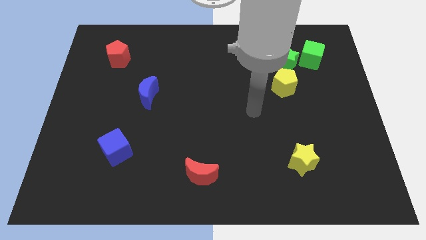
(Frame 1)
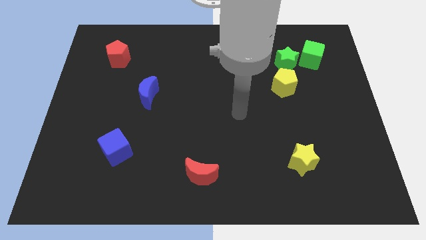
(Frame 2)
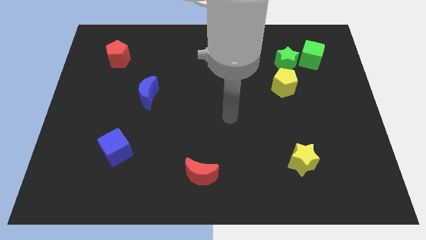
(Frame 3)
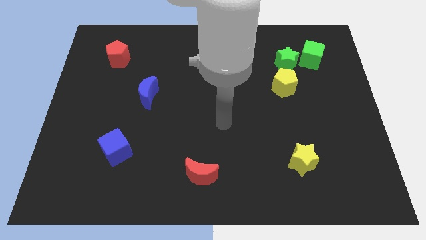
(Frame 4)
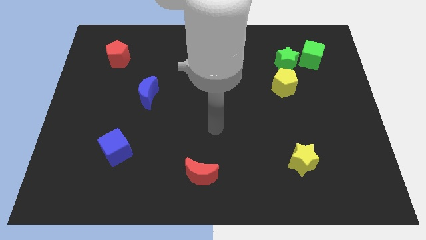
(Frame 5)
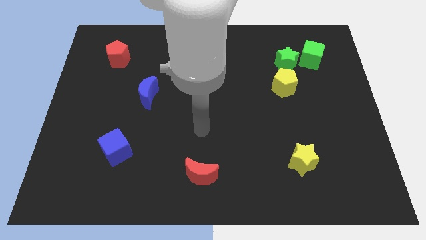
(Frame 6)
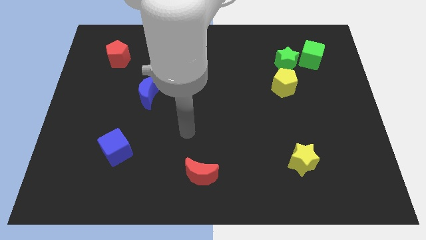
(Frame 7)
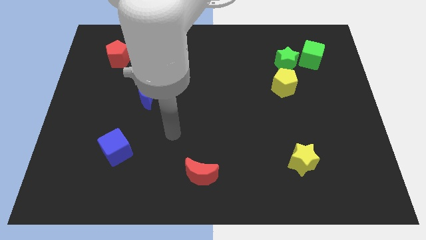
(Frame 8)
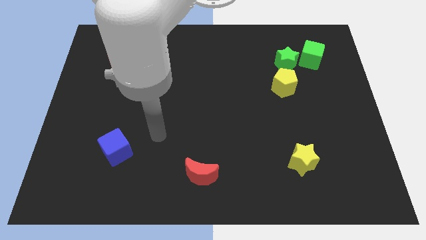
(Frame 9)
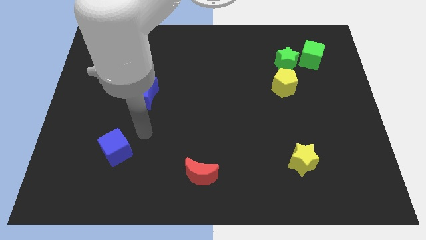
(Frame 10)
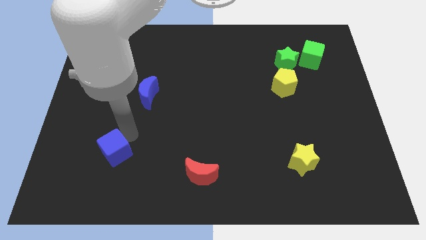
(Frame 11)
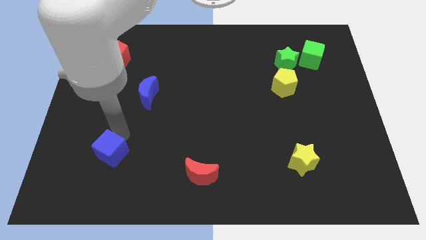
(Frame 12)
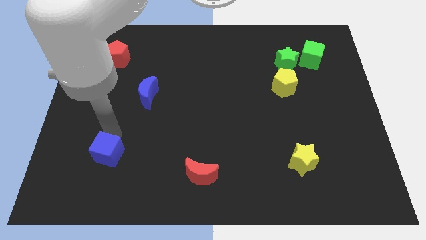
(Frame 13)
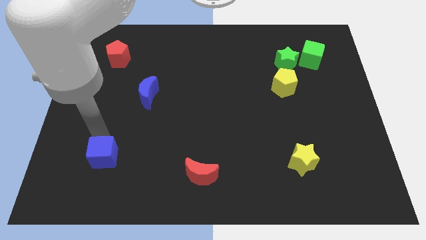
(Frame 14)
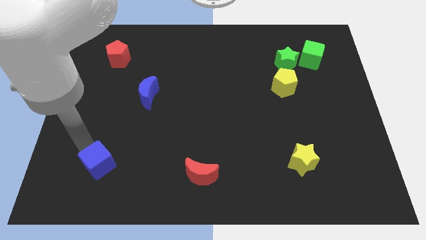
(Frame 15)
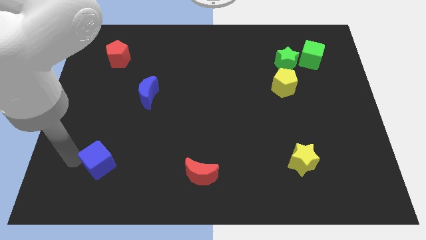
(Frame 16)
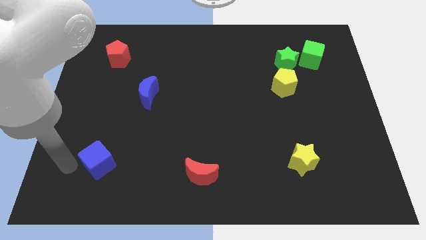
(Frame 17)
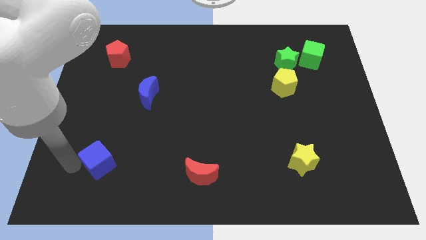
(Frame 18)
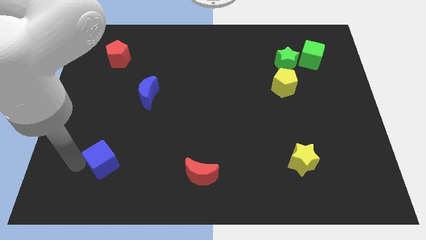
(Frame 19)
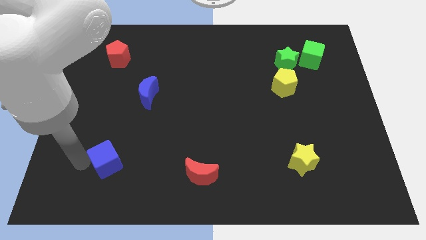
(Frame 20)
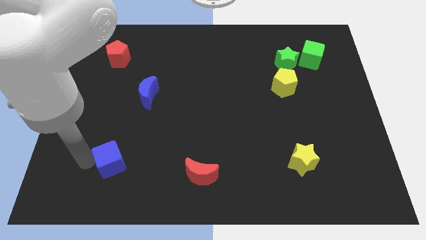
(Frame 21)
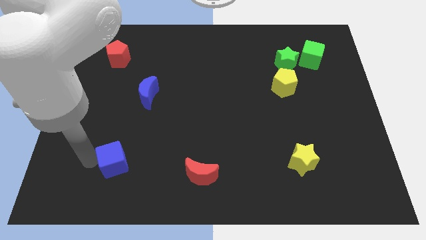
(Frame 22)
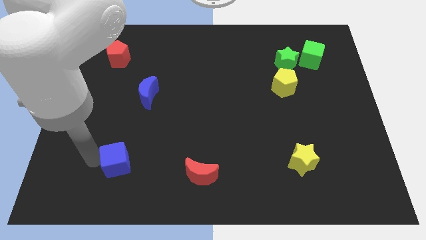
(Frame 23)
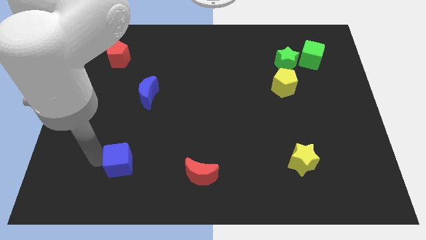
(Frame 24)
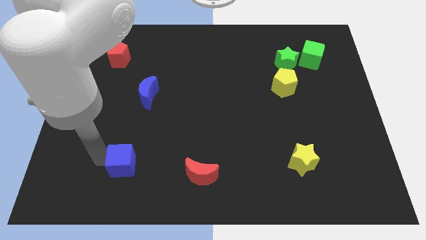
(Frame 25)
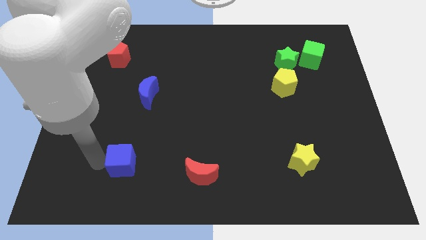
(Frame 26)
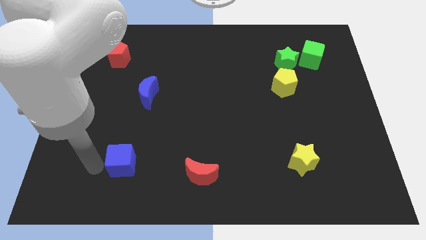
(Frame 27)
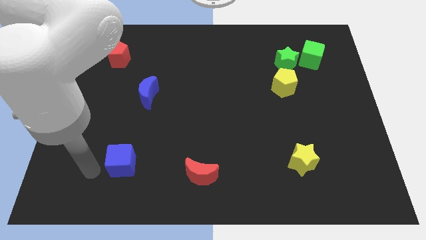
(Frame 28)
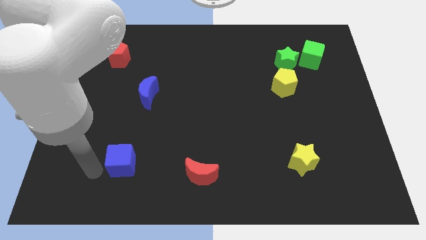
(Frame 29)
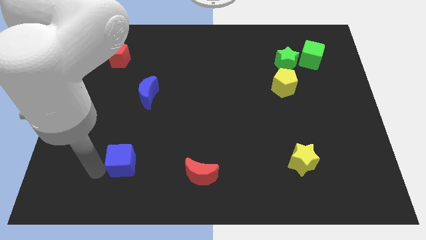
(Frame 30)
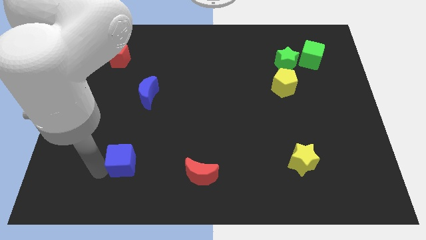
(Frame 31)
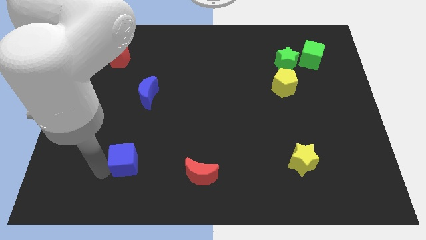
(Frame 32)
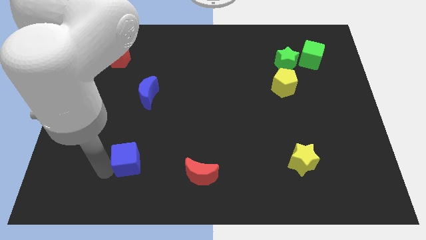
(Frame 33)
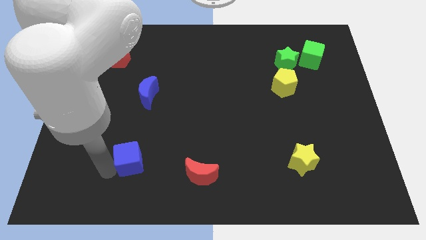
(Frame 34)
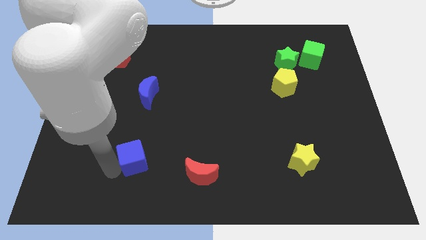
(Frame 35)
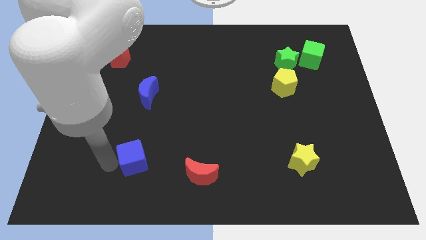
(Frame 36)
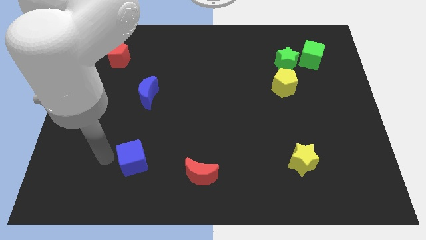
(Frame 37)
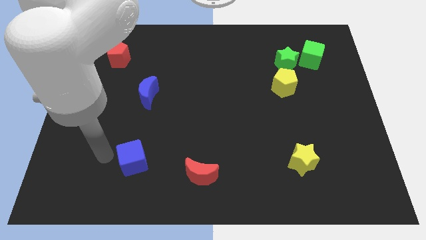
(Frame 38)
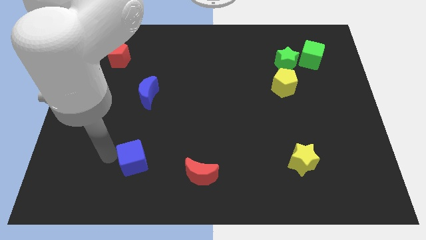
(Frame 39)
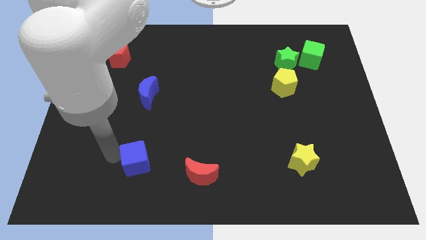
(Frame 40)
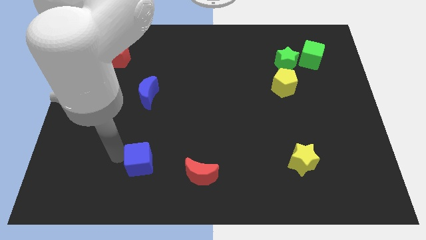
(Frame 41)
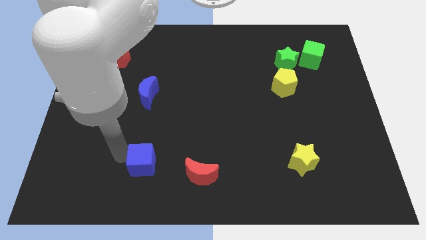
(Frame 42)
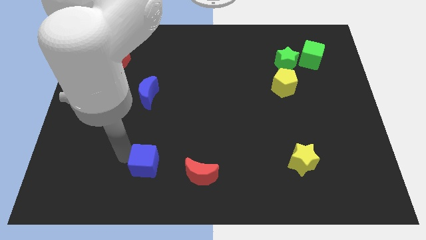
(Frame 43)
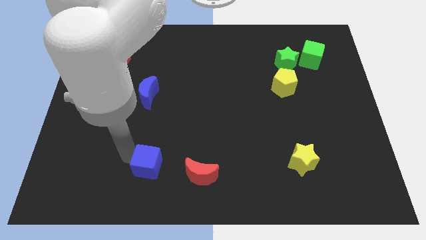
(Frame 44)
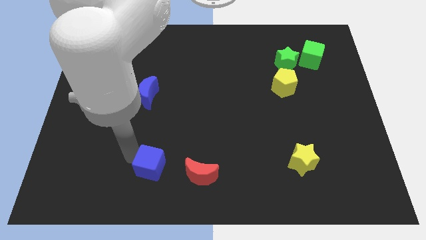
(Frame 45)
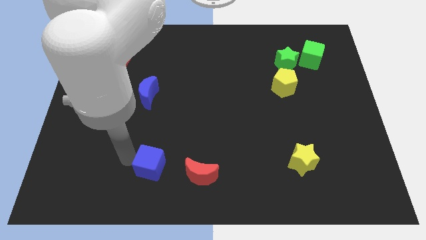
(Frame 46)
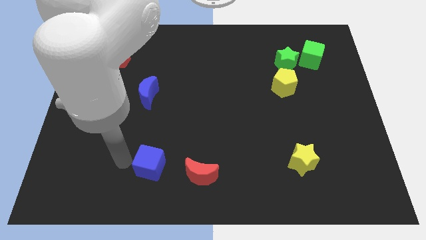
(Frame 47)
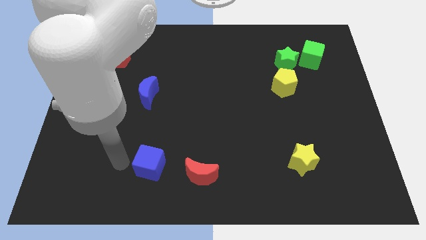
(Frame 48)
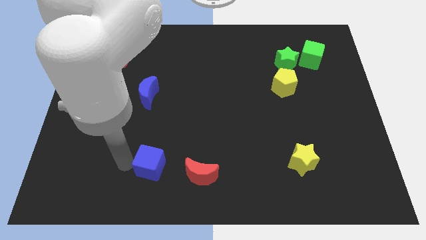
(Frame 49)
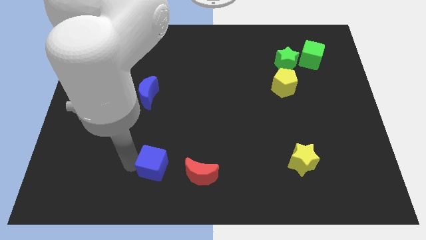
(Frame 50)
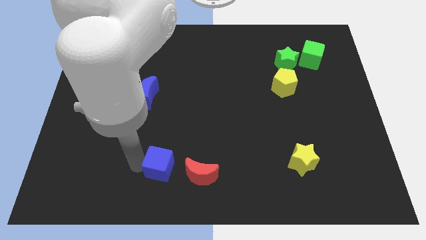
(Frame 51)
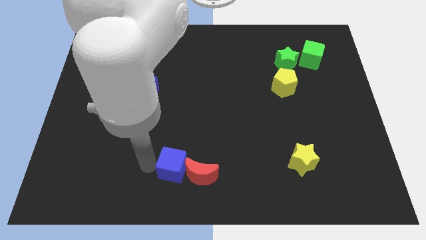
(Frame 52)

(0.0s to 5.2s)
push the blue cube towards the red moon

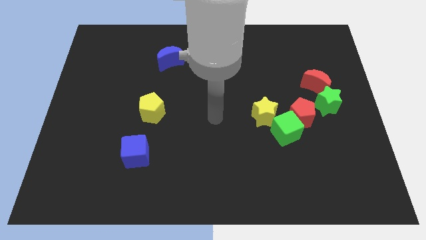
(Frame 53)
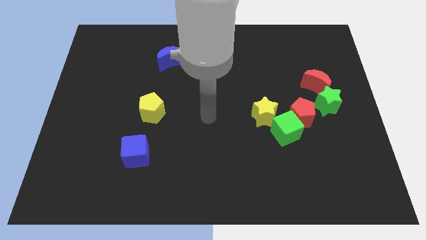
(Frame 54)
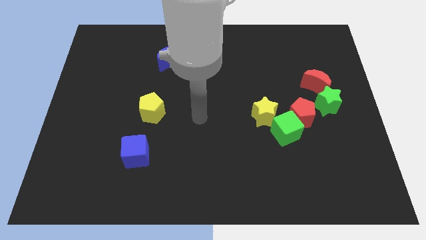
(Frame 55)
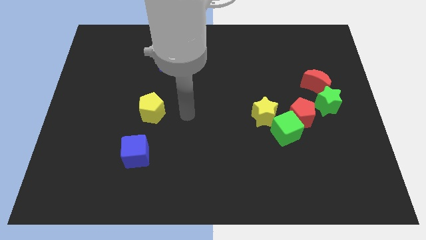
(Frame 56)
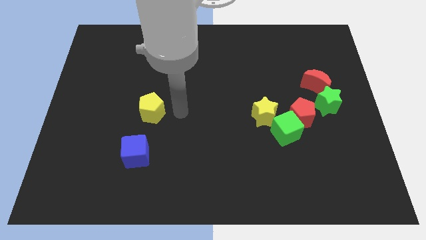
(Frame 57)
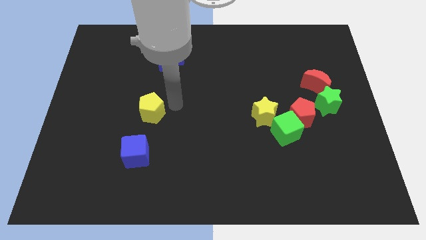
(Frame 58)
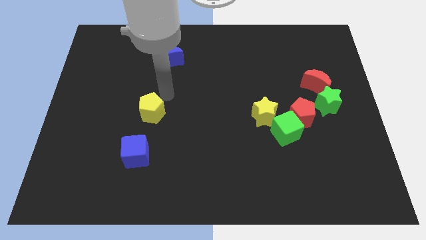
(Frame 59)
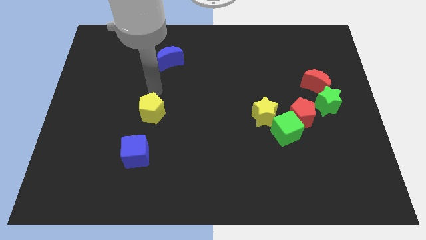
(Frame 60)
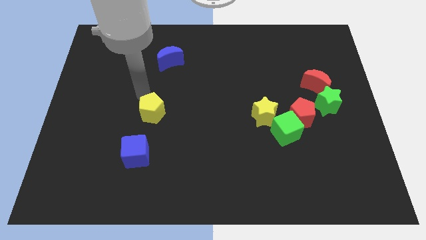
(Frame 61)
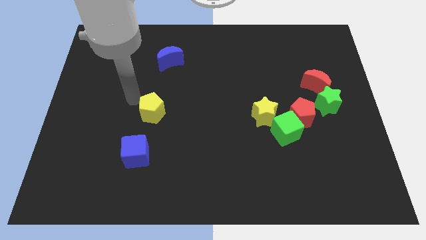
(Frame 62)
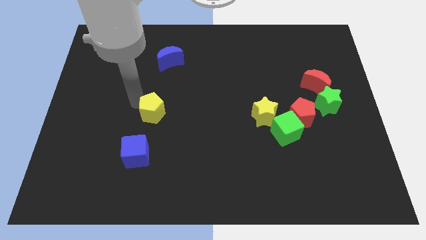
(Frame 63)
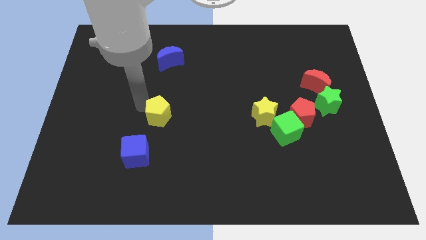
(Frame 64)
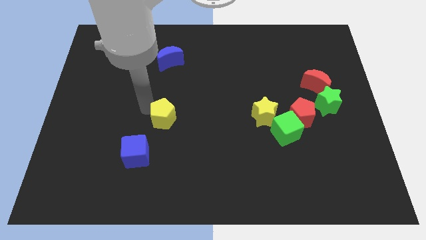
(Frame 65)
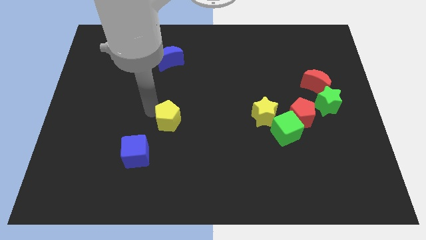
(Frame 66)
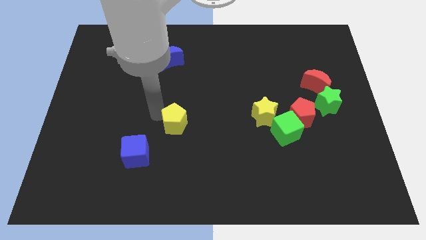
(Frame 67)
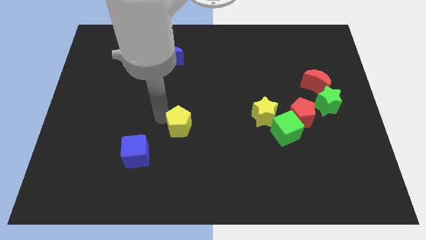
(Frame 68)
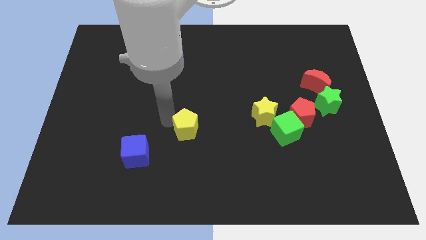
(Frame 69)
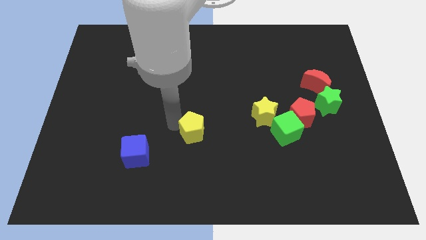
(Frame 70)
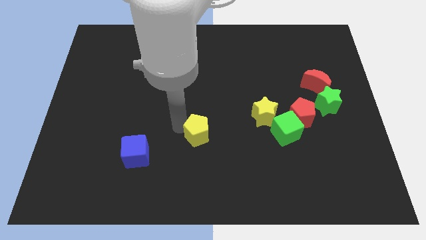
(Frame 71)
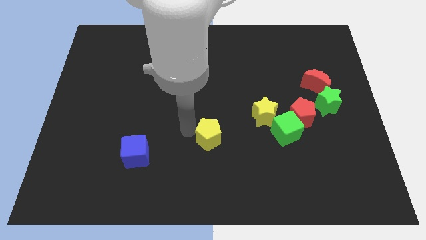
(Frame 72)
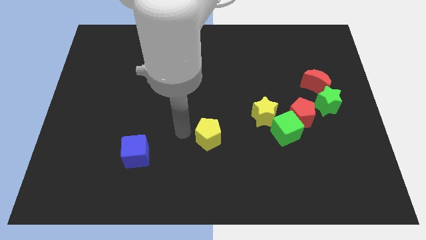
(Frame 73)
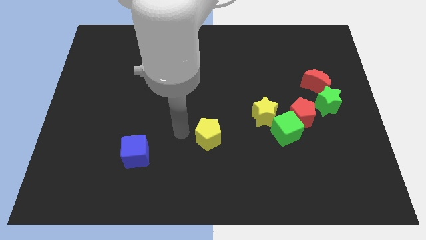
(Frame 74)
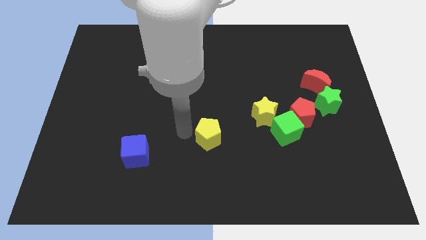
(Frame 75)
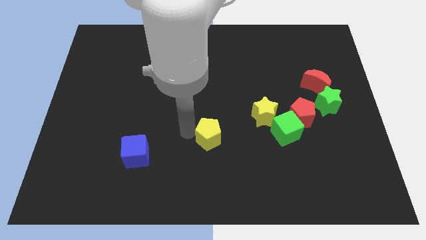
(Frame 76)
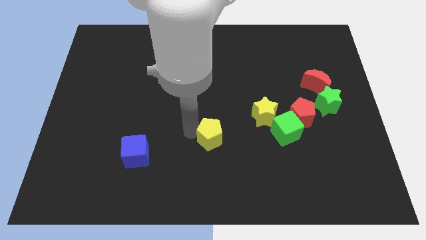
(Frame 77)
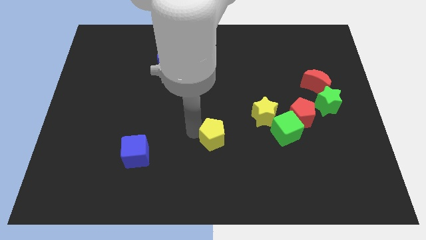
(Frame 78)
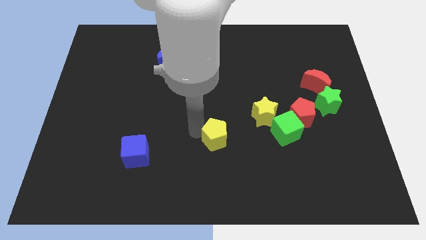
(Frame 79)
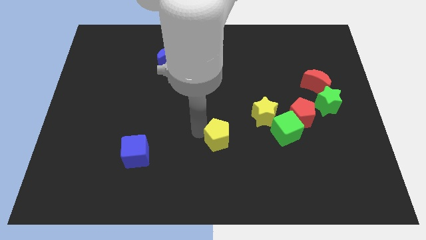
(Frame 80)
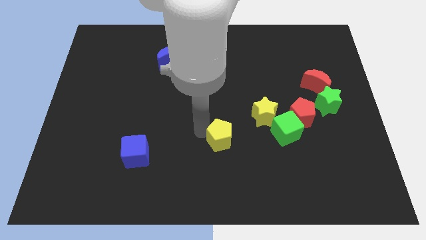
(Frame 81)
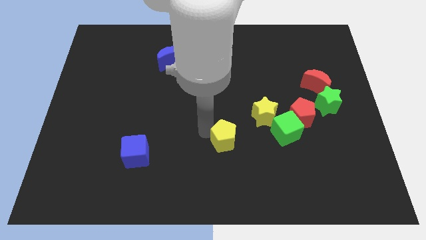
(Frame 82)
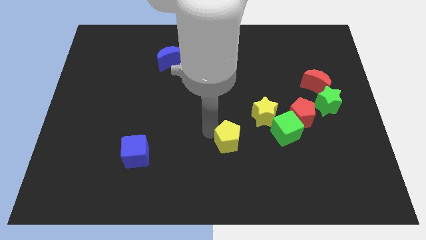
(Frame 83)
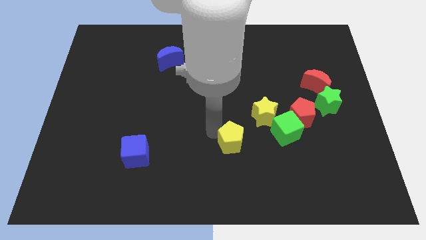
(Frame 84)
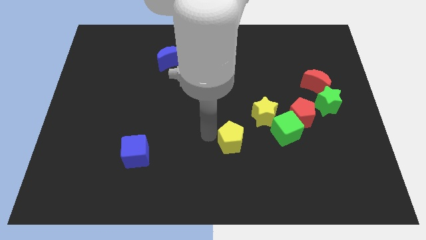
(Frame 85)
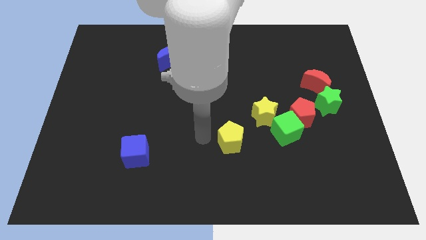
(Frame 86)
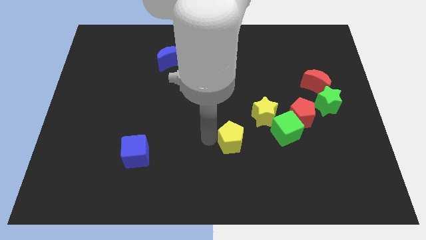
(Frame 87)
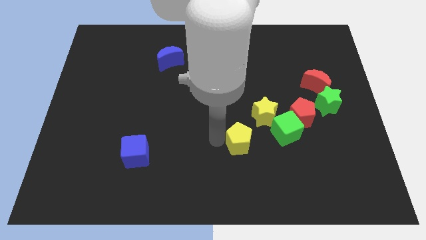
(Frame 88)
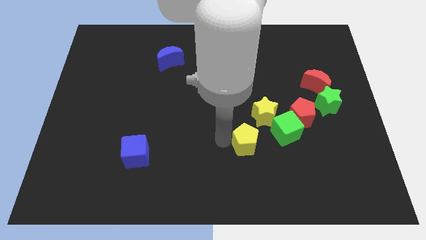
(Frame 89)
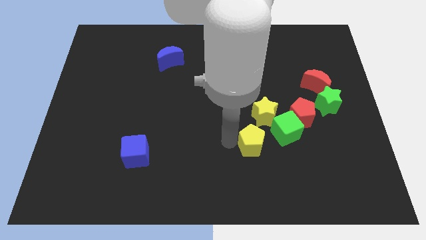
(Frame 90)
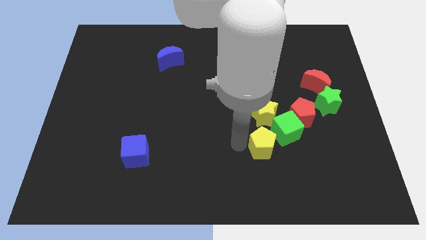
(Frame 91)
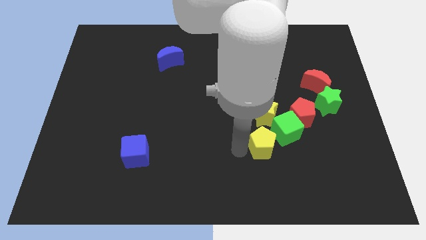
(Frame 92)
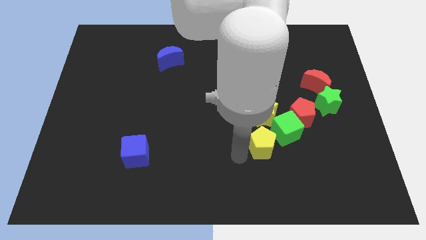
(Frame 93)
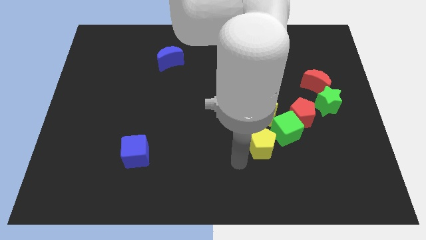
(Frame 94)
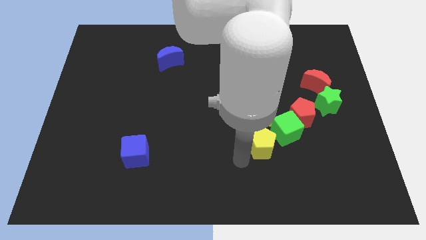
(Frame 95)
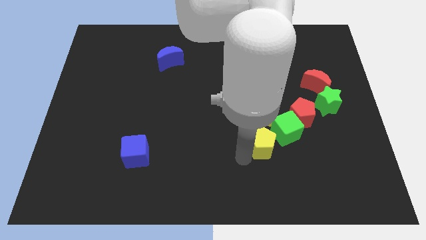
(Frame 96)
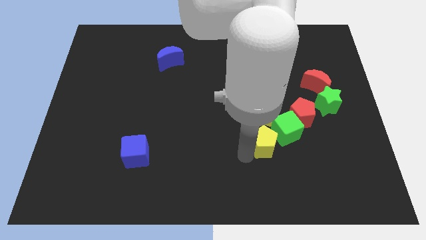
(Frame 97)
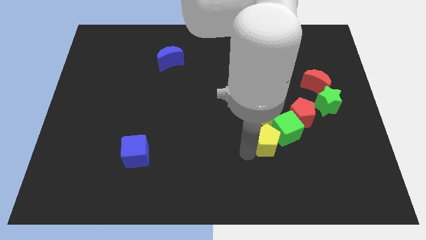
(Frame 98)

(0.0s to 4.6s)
slide the yellow pentagon next to the green cube
